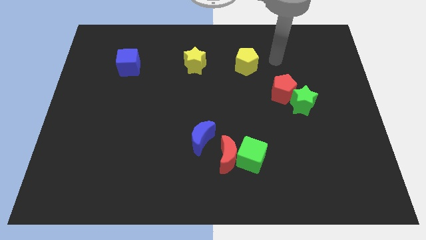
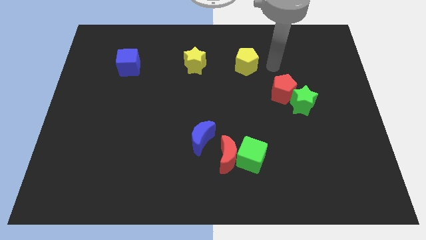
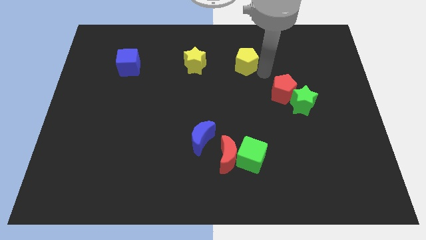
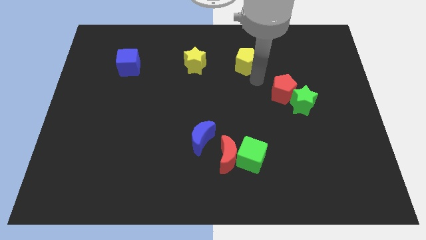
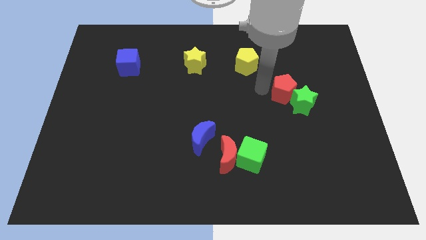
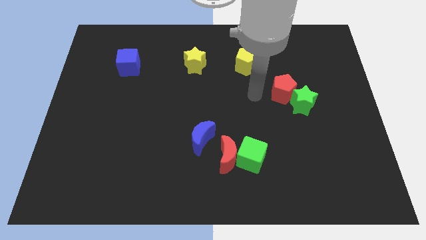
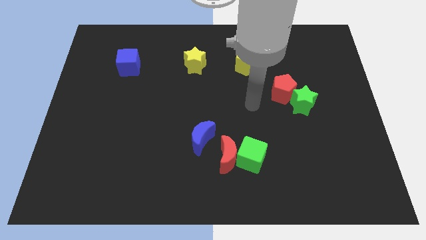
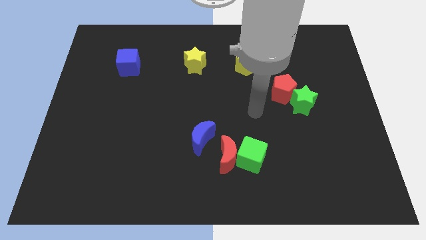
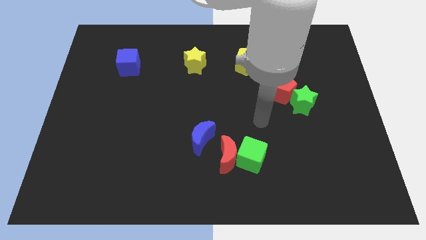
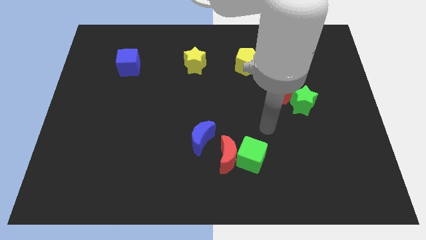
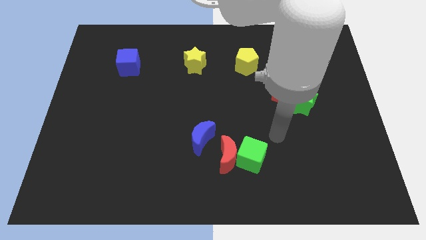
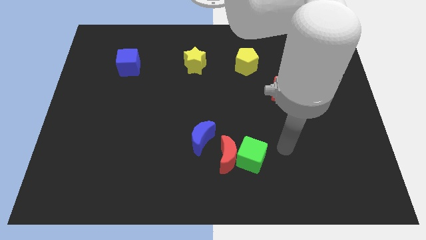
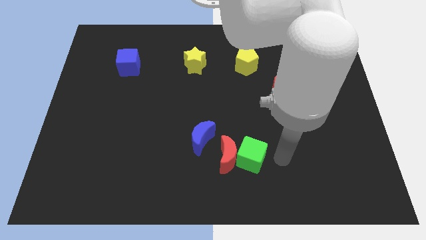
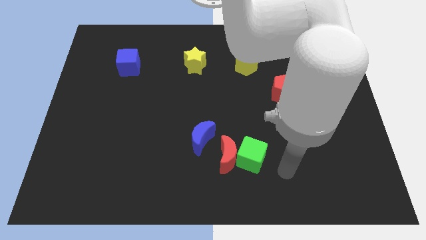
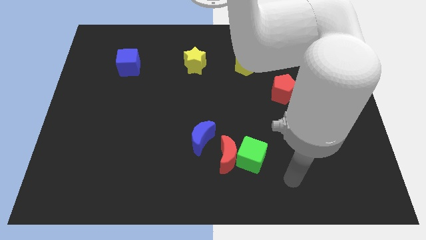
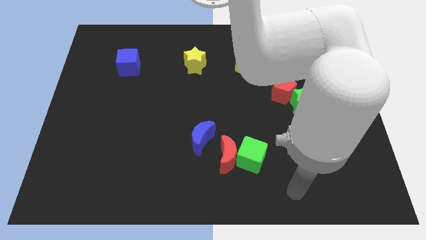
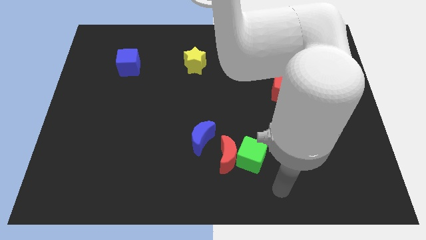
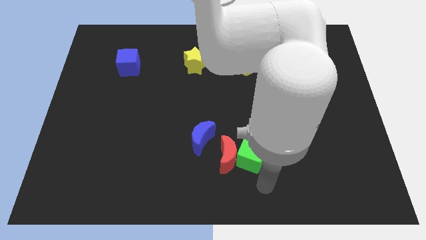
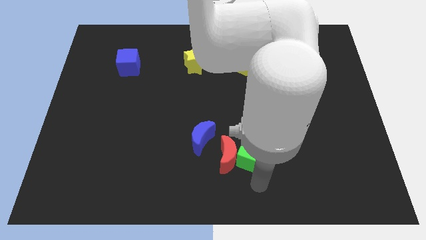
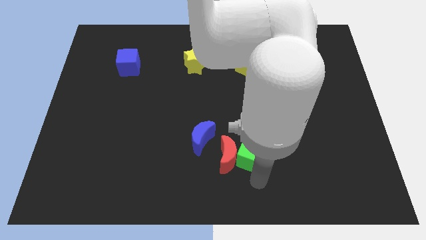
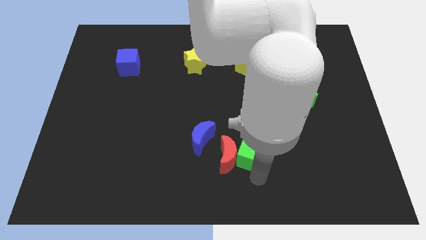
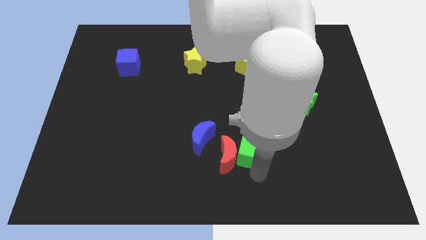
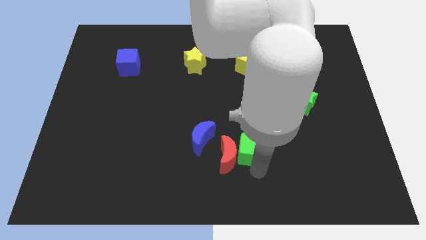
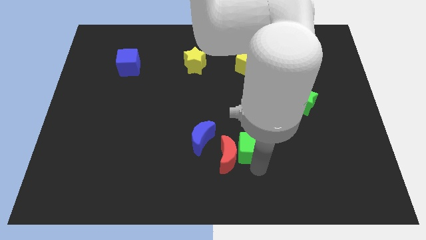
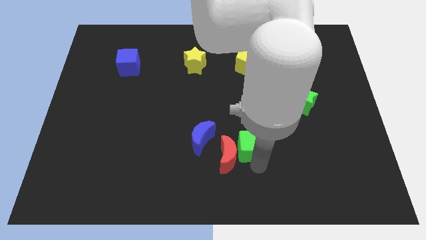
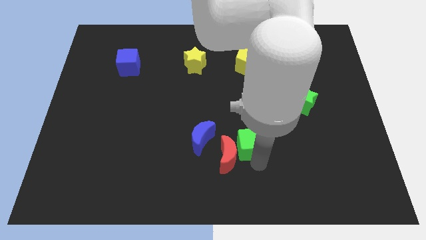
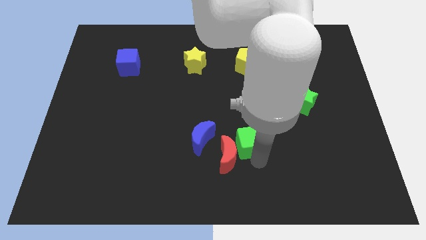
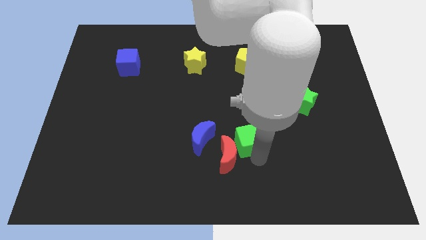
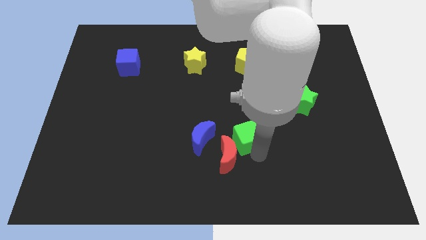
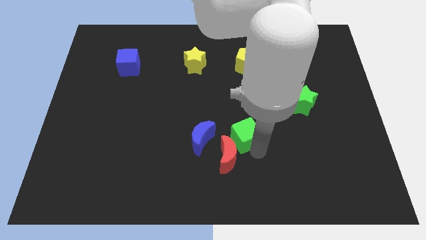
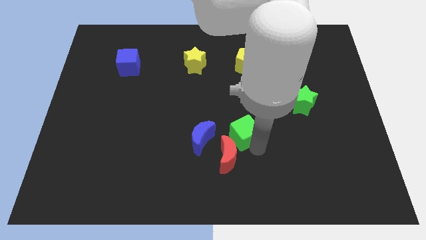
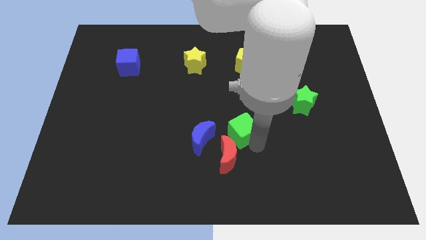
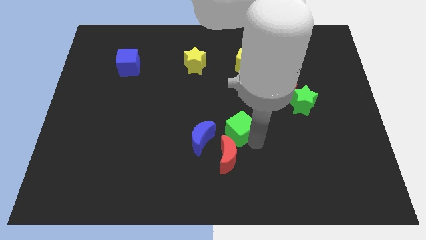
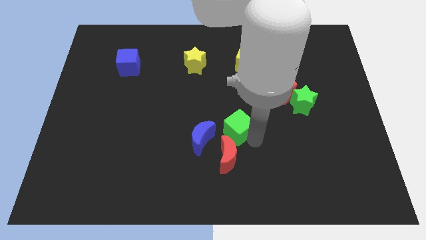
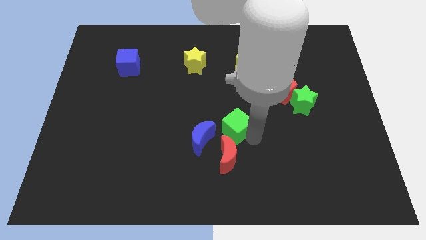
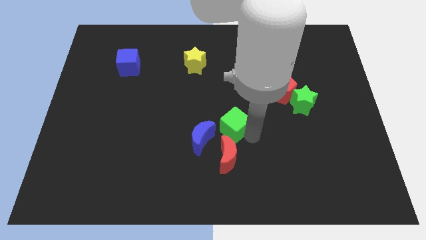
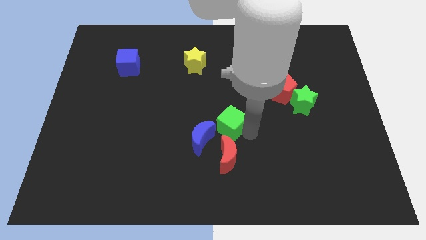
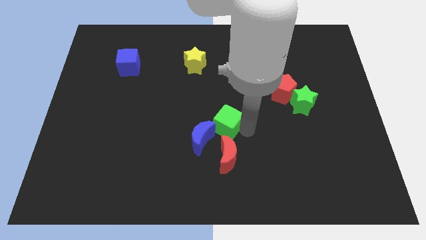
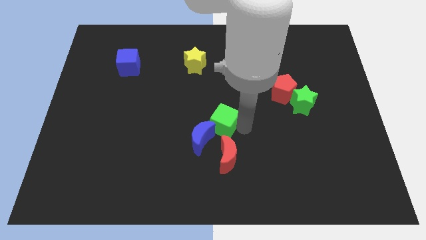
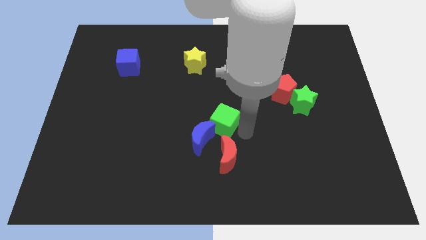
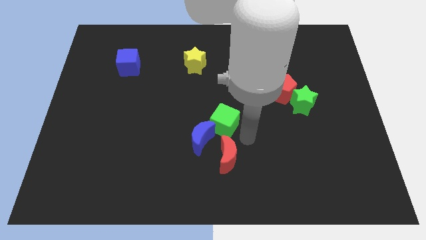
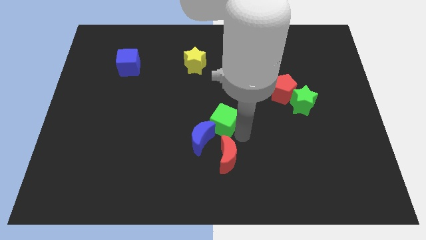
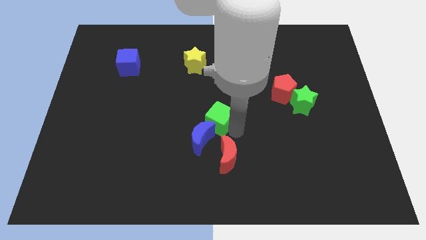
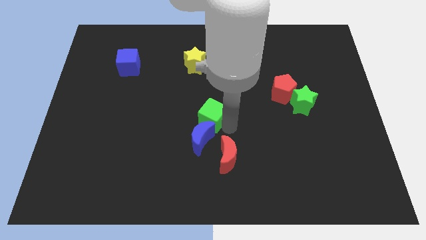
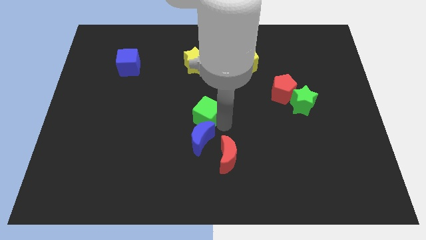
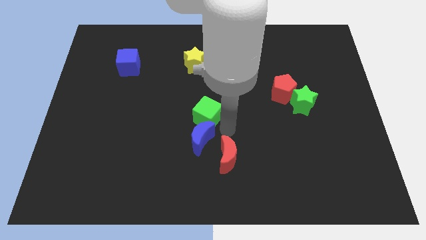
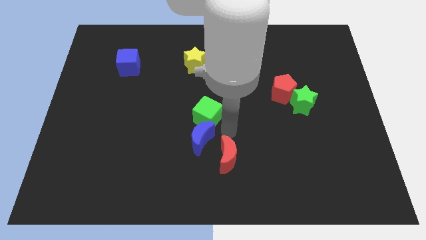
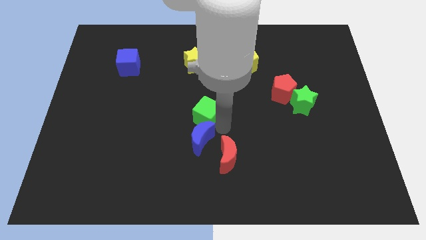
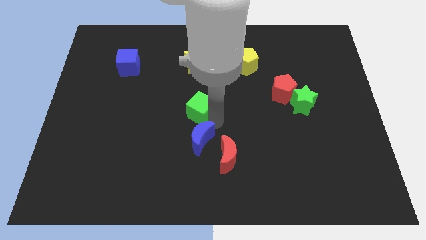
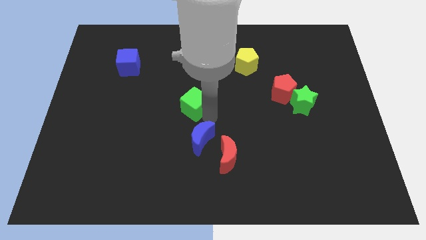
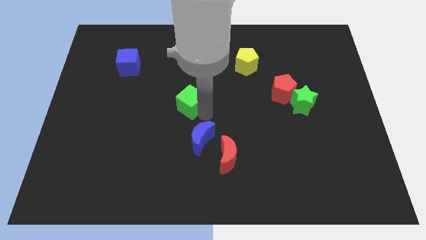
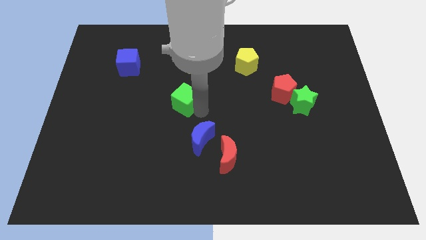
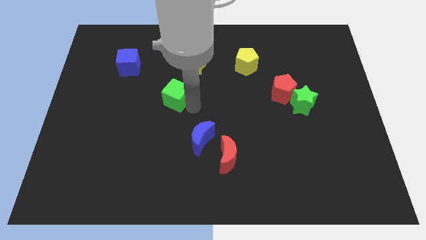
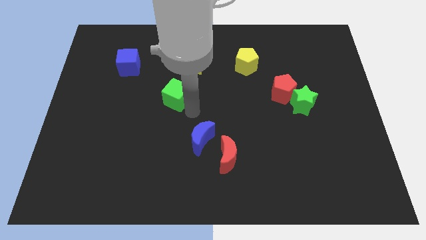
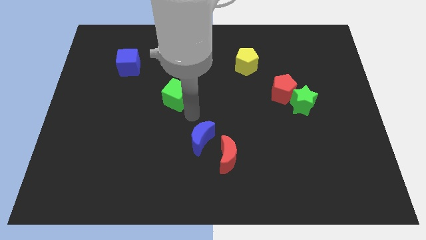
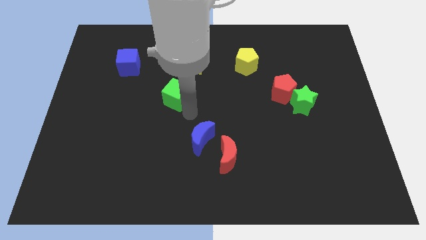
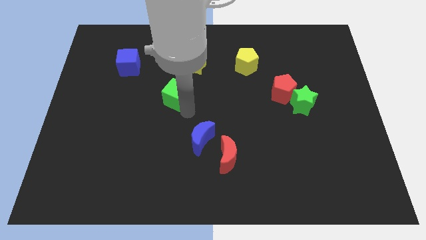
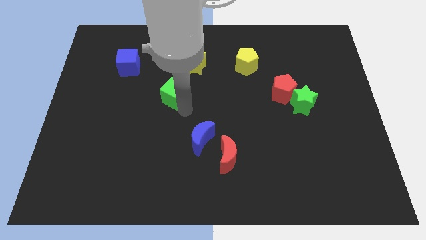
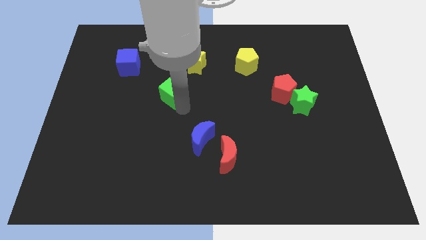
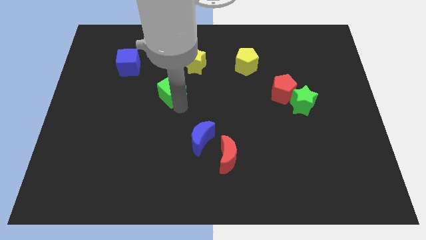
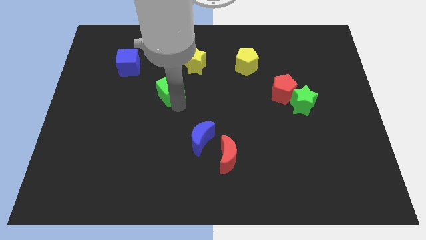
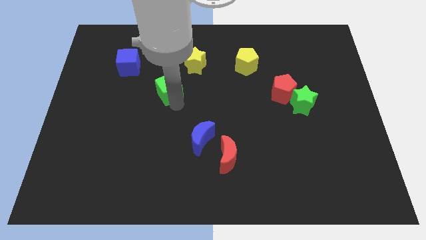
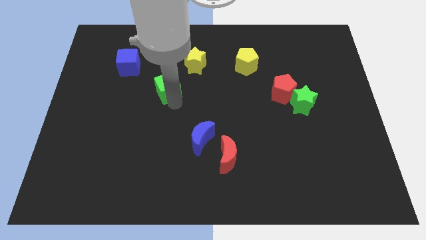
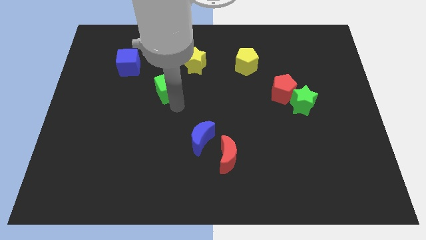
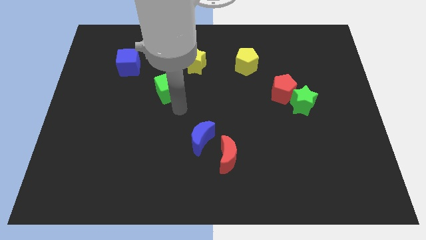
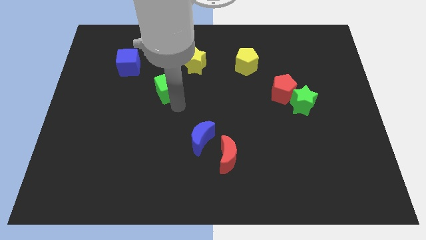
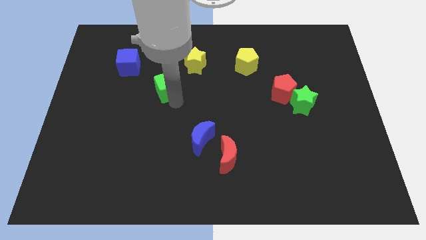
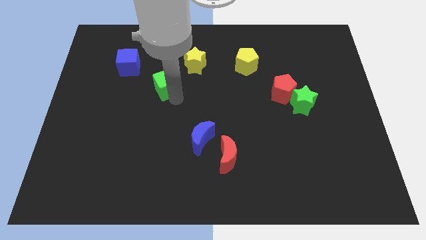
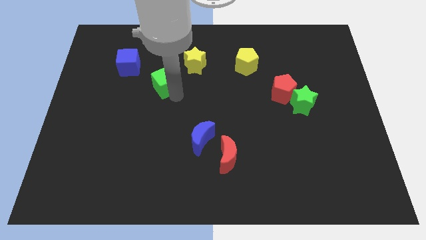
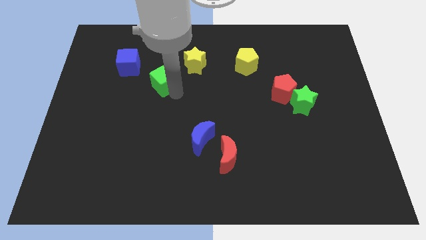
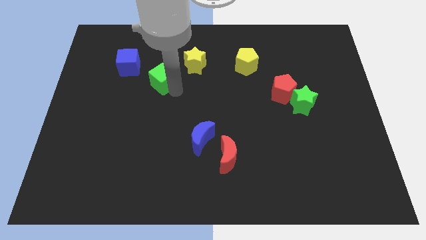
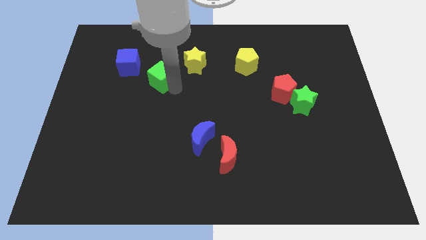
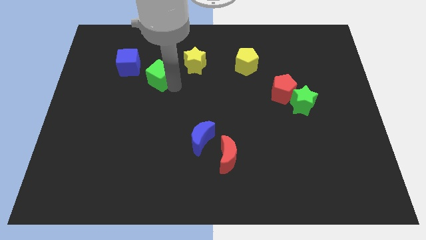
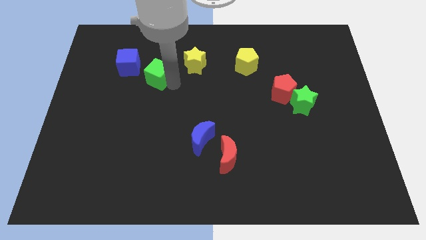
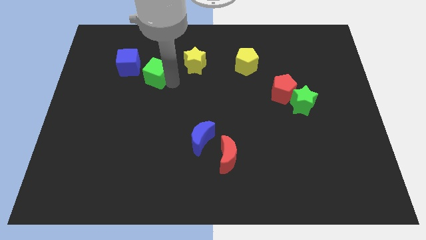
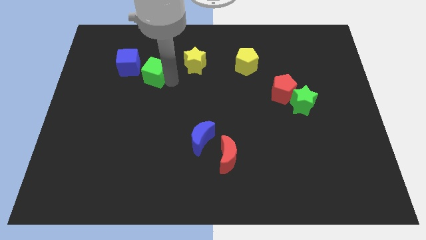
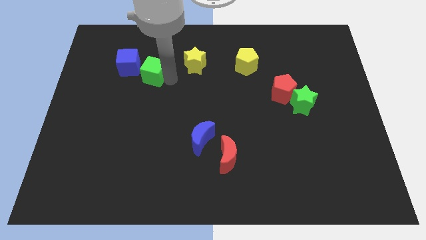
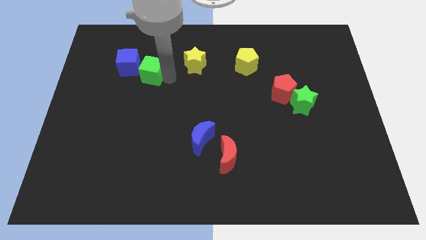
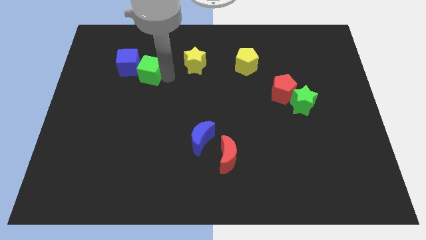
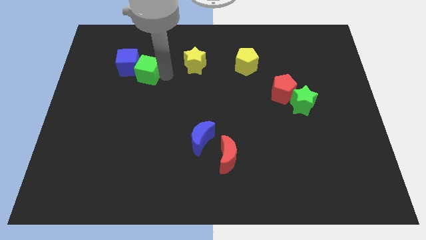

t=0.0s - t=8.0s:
put the green cube next to the blue cube
